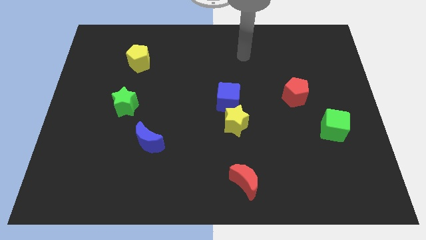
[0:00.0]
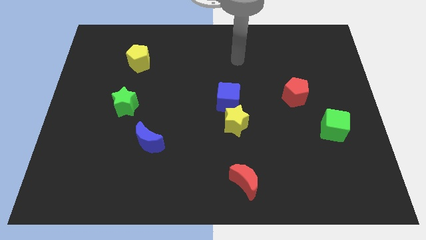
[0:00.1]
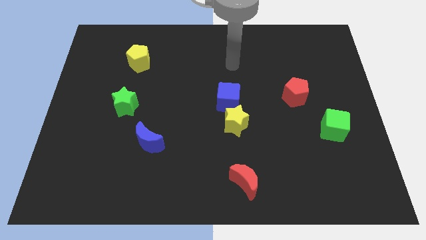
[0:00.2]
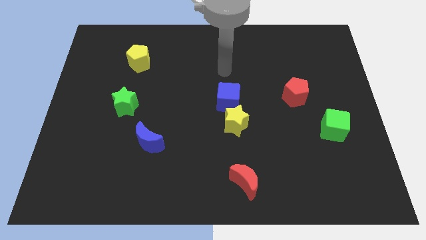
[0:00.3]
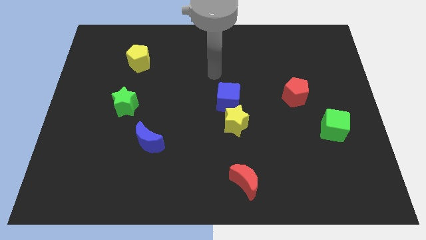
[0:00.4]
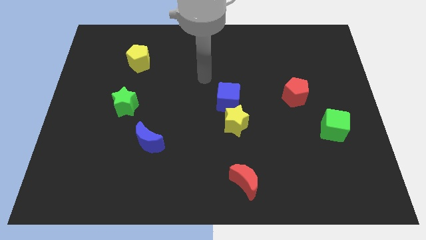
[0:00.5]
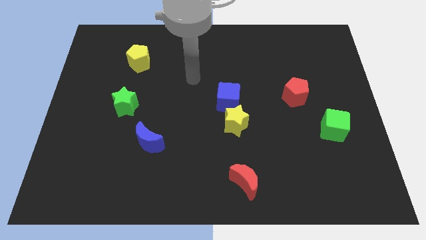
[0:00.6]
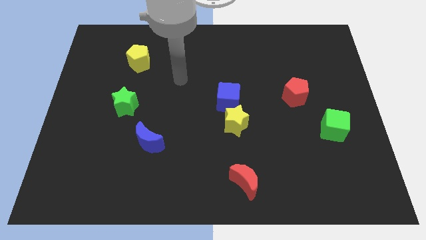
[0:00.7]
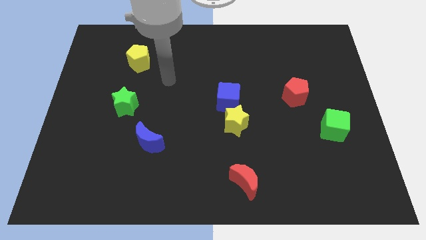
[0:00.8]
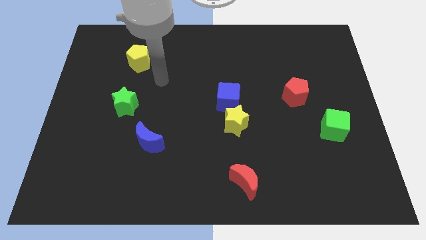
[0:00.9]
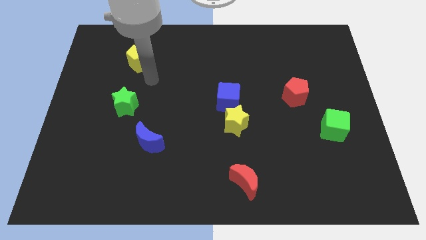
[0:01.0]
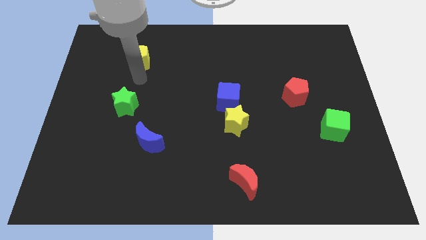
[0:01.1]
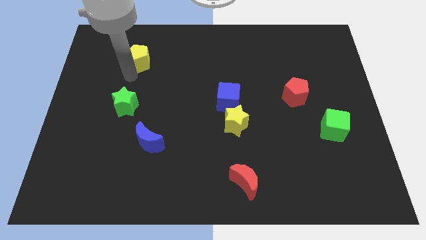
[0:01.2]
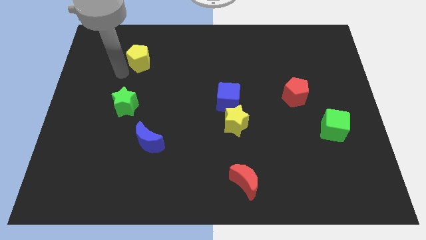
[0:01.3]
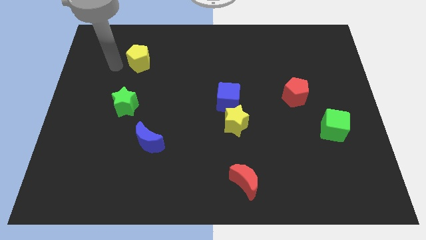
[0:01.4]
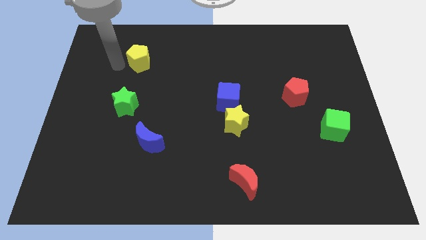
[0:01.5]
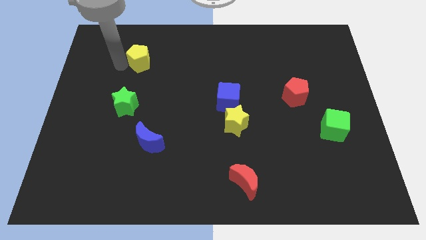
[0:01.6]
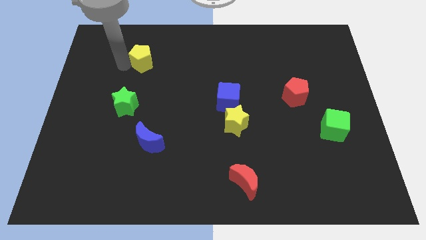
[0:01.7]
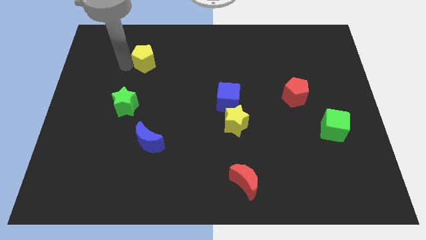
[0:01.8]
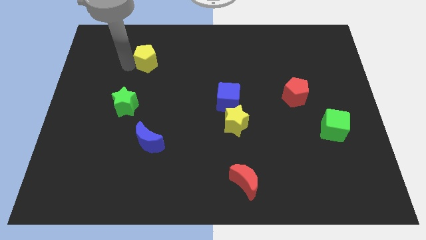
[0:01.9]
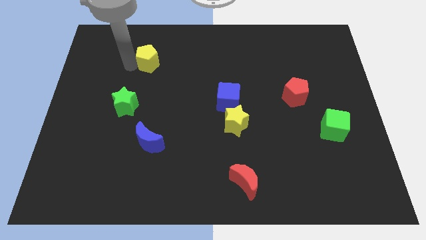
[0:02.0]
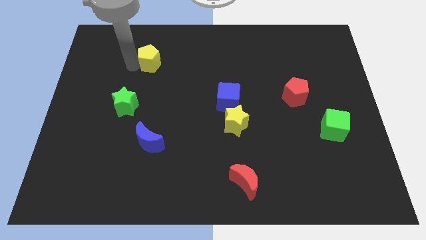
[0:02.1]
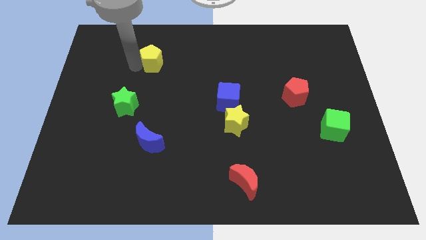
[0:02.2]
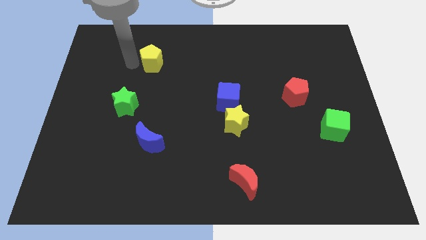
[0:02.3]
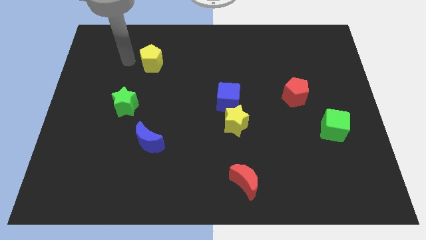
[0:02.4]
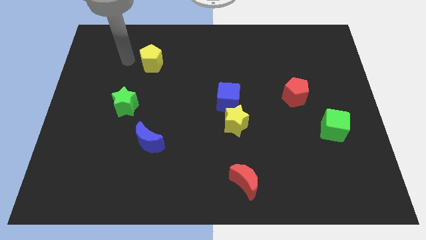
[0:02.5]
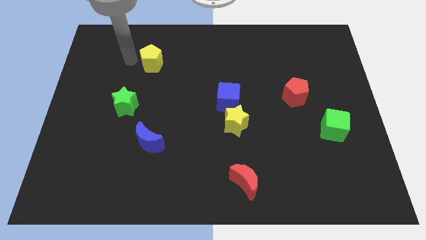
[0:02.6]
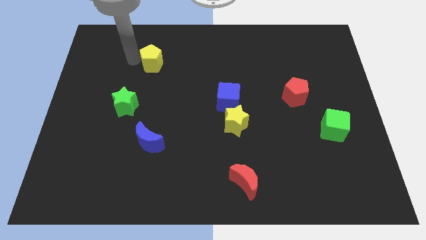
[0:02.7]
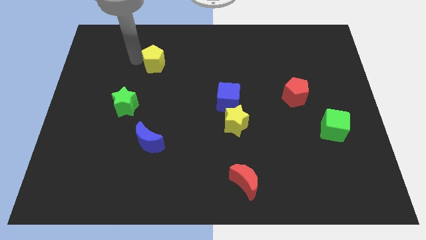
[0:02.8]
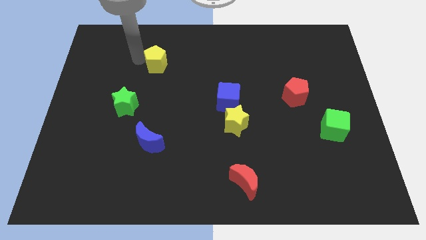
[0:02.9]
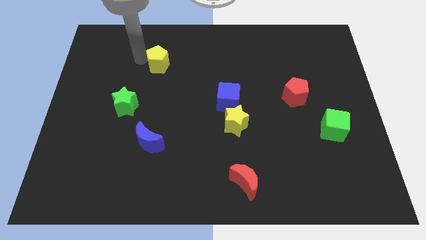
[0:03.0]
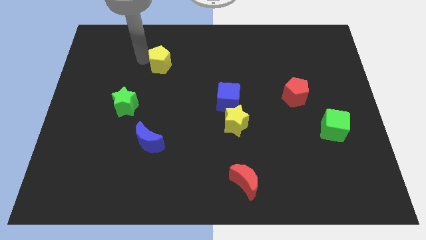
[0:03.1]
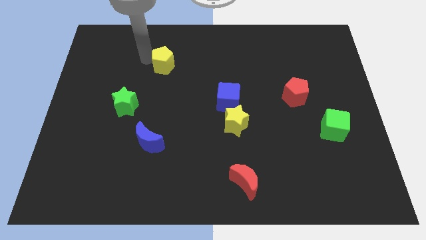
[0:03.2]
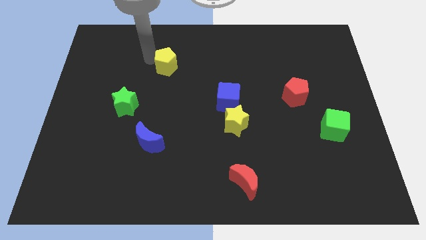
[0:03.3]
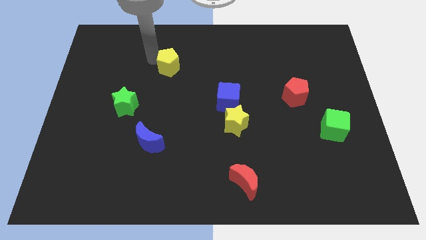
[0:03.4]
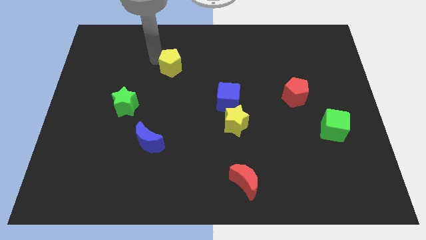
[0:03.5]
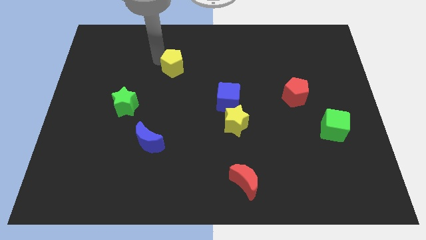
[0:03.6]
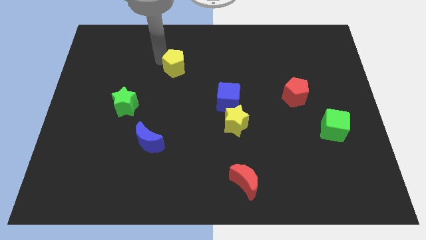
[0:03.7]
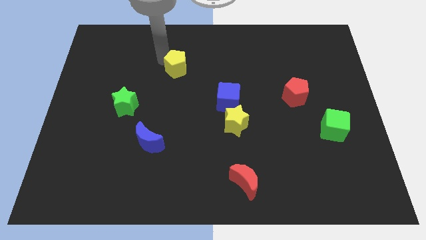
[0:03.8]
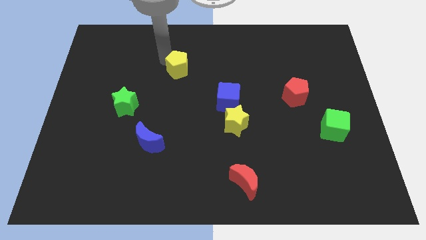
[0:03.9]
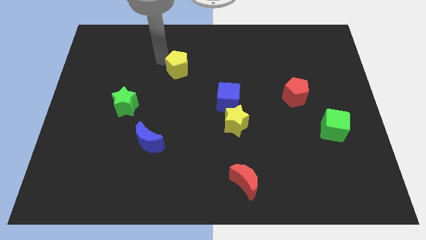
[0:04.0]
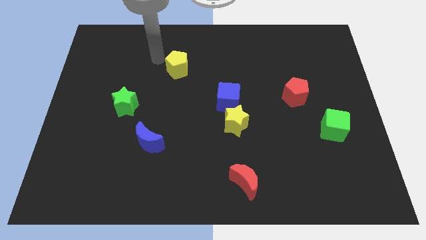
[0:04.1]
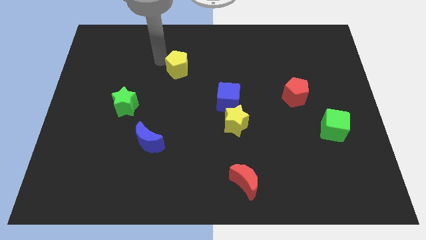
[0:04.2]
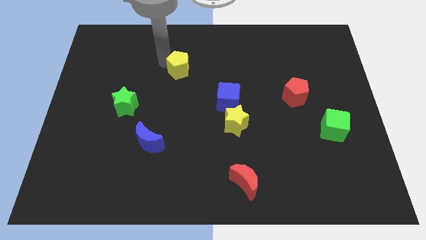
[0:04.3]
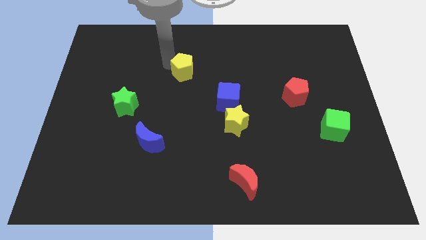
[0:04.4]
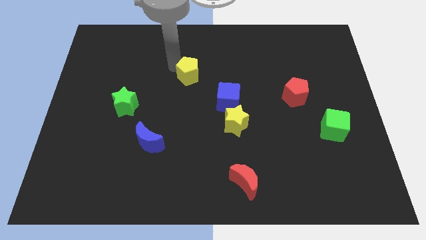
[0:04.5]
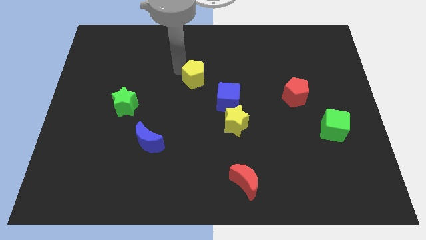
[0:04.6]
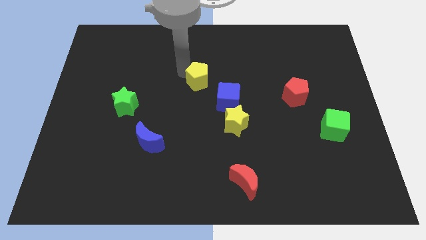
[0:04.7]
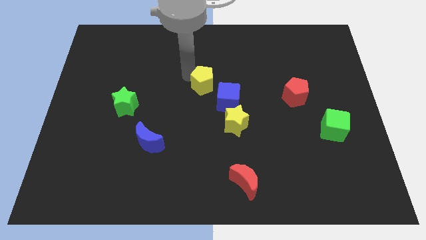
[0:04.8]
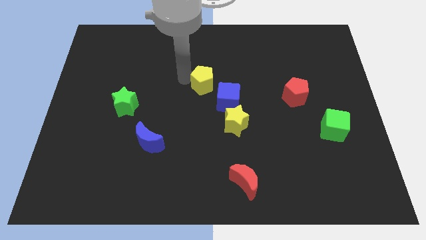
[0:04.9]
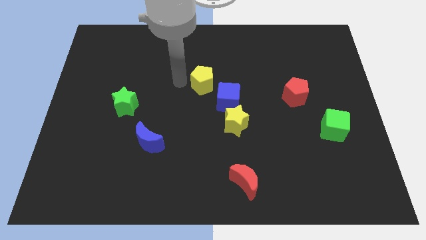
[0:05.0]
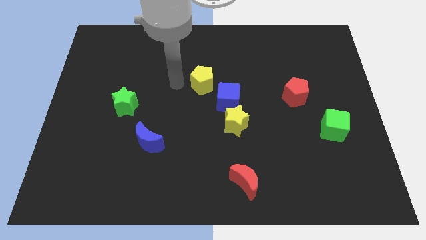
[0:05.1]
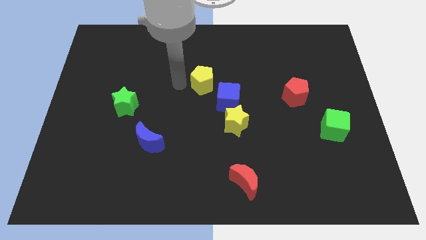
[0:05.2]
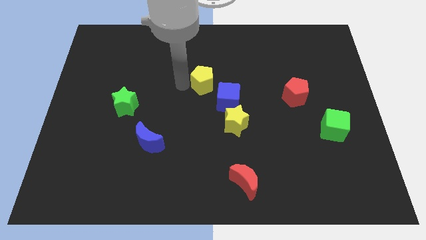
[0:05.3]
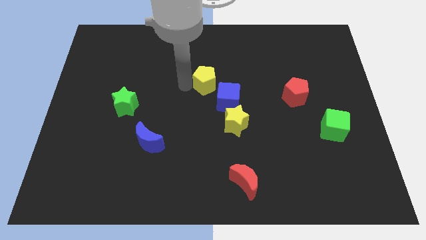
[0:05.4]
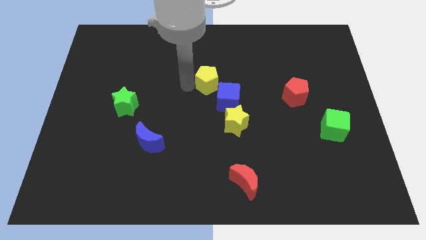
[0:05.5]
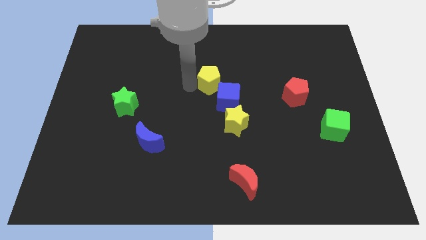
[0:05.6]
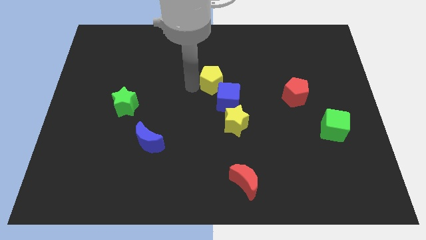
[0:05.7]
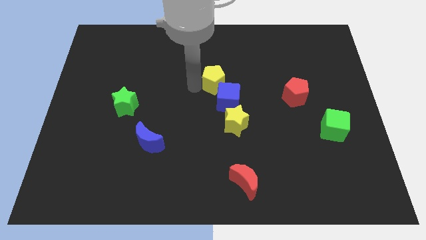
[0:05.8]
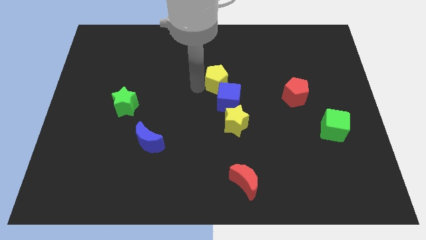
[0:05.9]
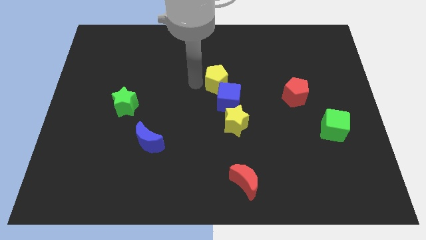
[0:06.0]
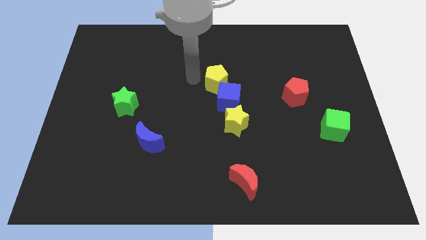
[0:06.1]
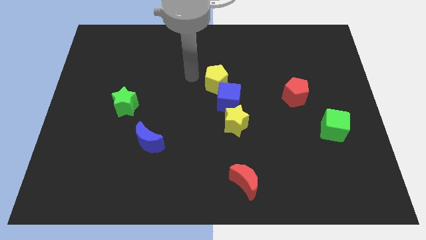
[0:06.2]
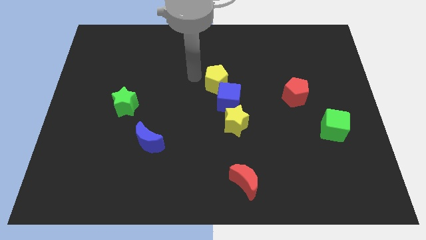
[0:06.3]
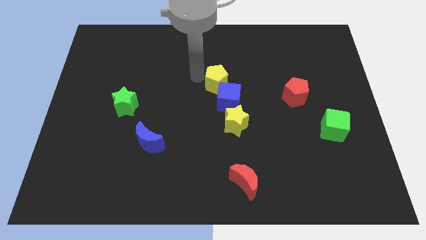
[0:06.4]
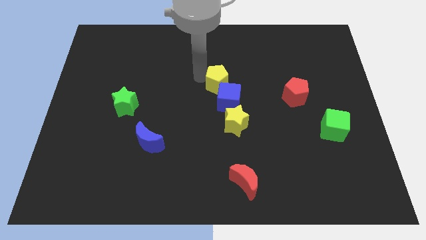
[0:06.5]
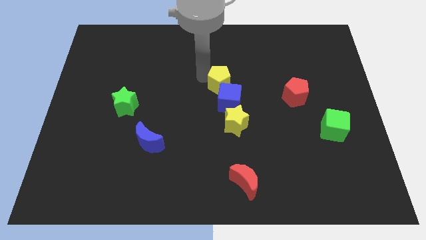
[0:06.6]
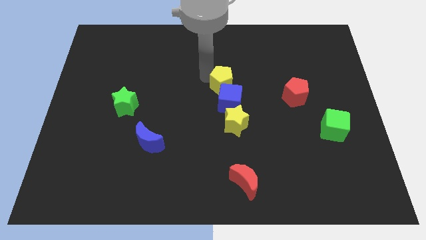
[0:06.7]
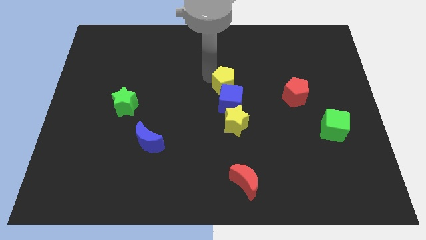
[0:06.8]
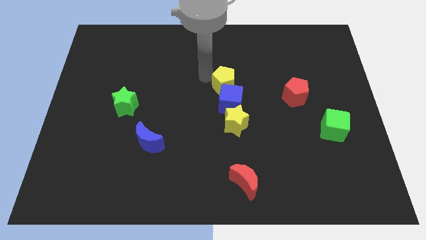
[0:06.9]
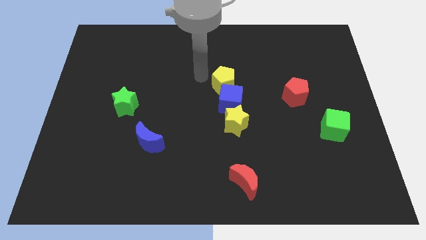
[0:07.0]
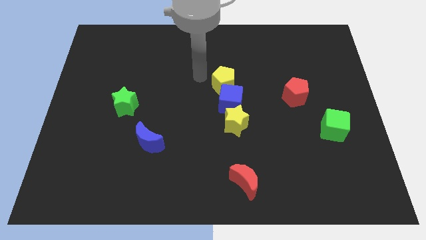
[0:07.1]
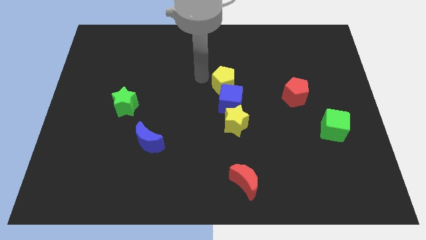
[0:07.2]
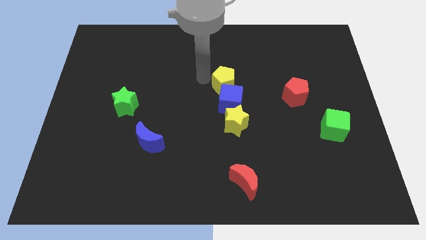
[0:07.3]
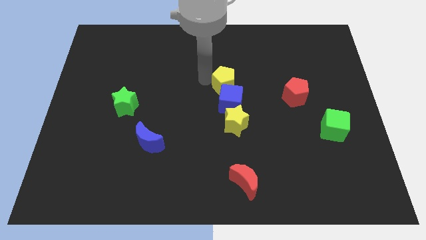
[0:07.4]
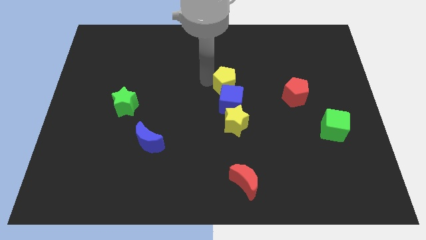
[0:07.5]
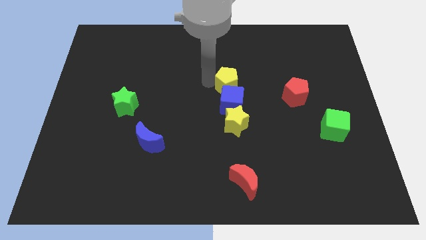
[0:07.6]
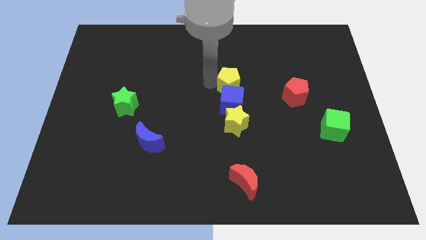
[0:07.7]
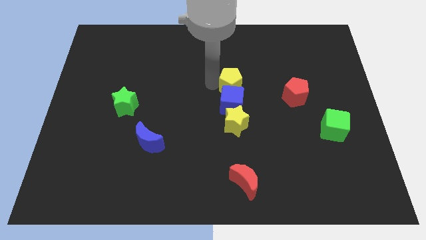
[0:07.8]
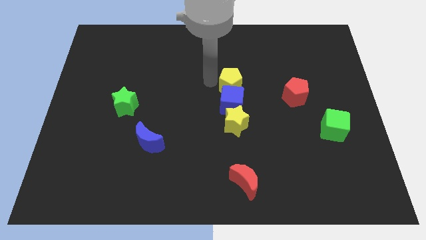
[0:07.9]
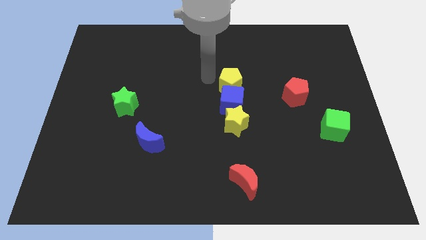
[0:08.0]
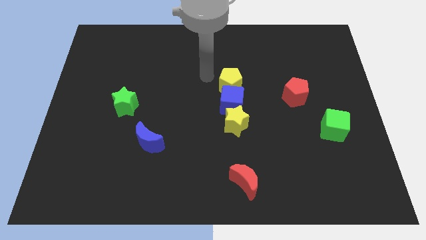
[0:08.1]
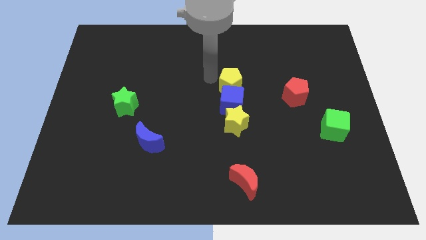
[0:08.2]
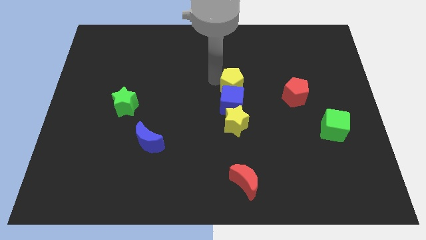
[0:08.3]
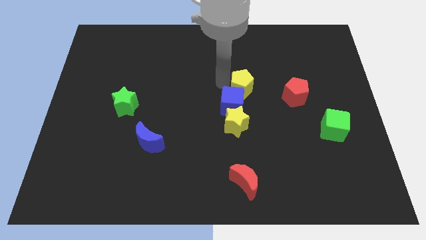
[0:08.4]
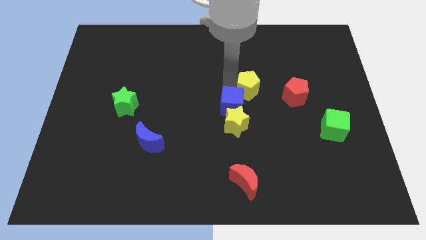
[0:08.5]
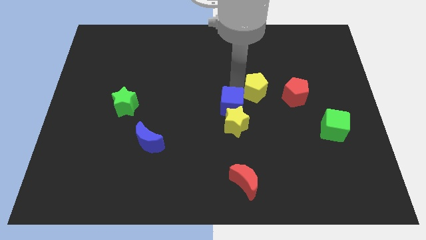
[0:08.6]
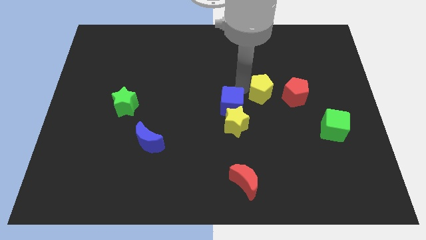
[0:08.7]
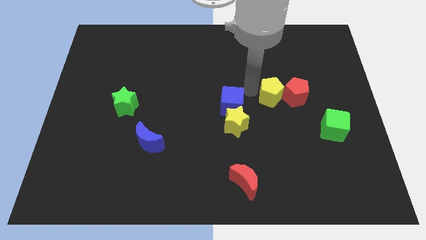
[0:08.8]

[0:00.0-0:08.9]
push the yellow pentagon to the red pentagon
